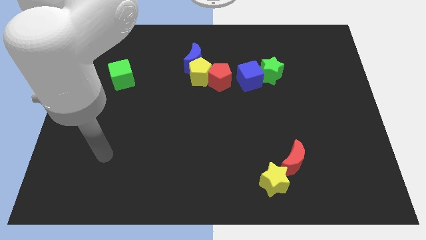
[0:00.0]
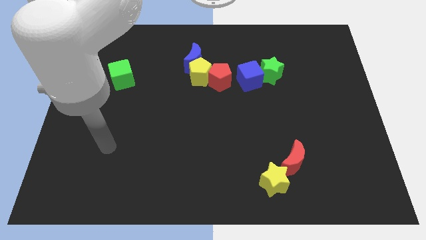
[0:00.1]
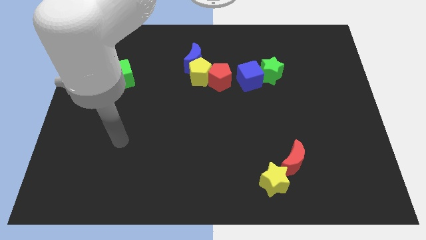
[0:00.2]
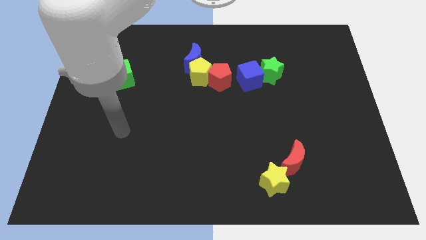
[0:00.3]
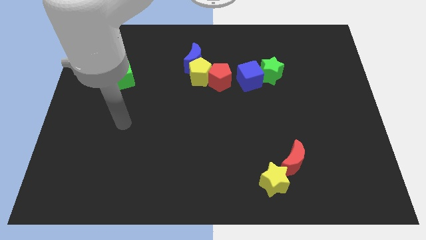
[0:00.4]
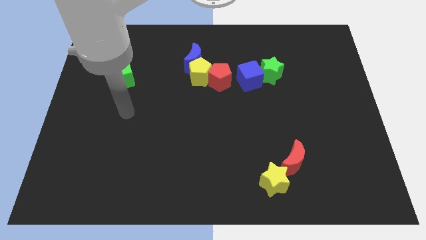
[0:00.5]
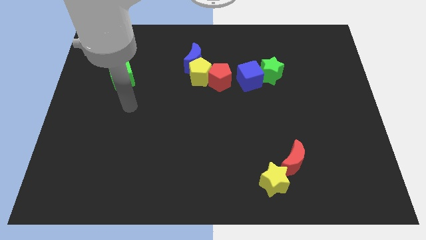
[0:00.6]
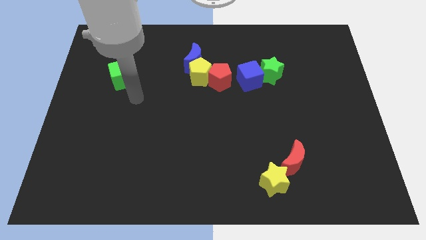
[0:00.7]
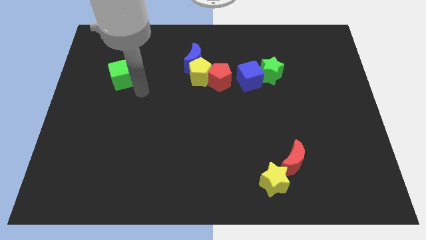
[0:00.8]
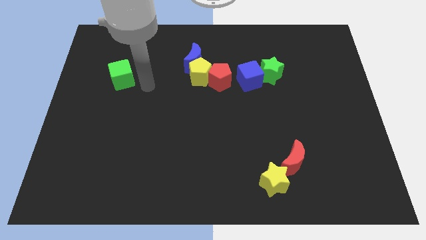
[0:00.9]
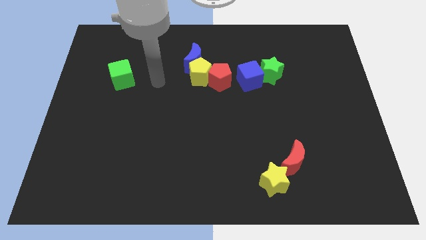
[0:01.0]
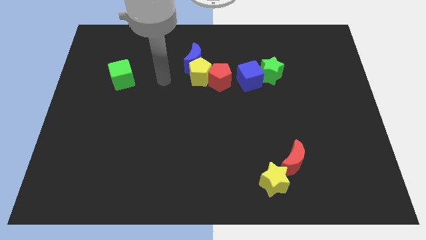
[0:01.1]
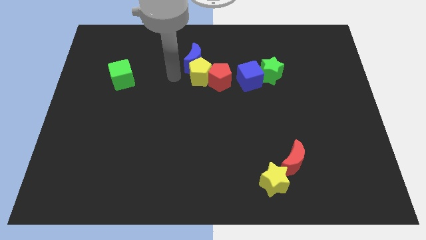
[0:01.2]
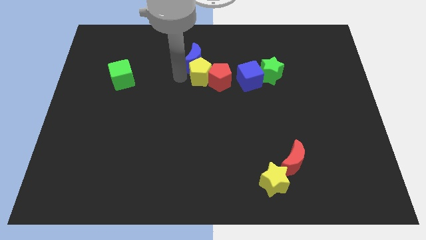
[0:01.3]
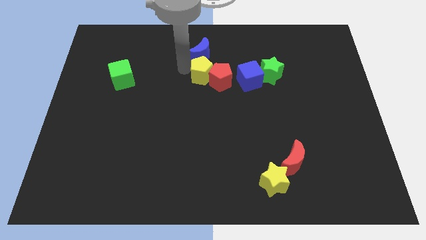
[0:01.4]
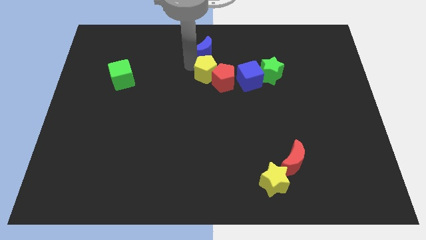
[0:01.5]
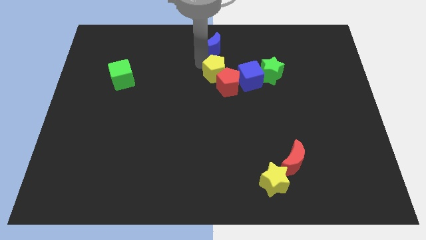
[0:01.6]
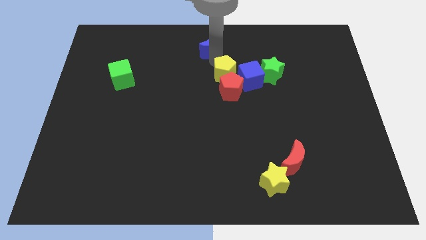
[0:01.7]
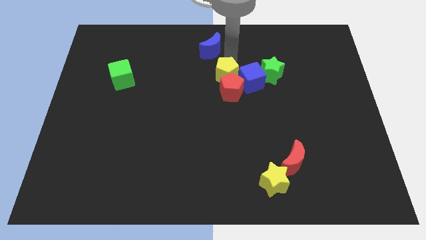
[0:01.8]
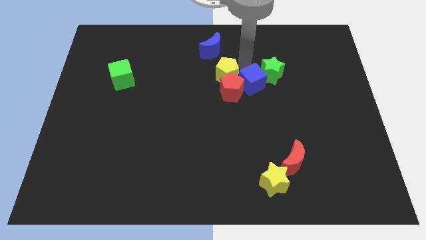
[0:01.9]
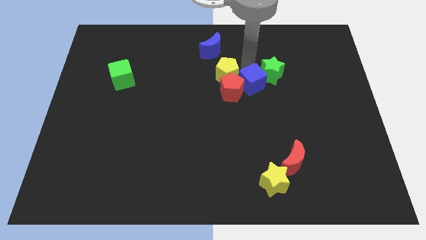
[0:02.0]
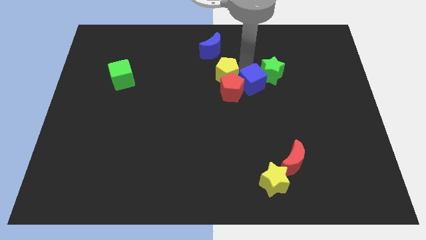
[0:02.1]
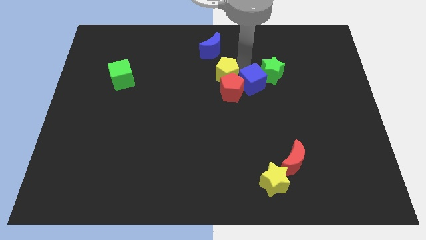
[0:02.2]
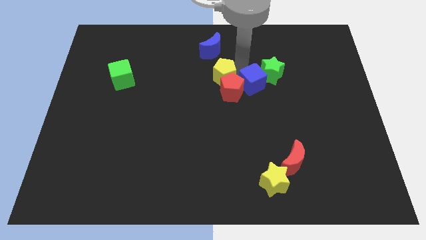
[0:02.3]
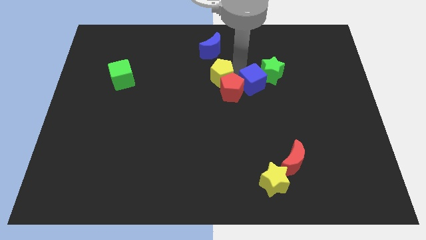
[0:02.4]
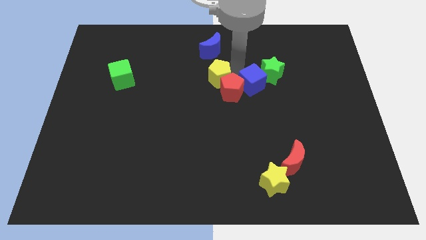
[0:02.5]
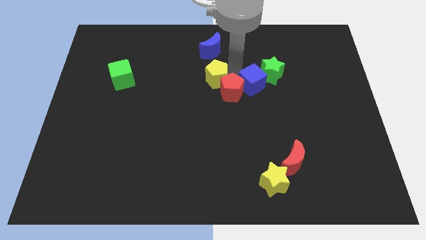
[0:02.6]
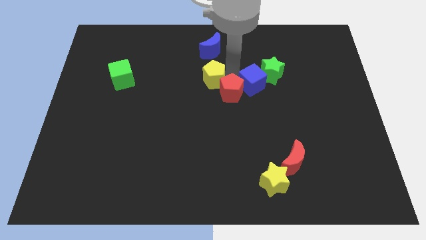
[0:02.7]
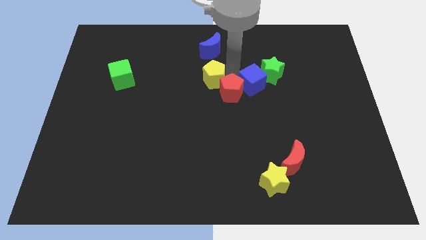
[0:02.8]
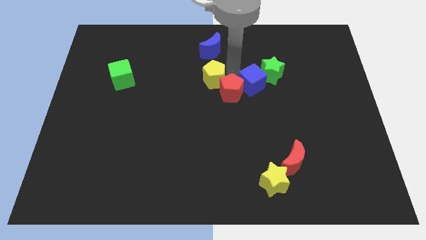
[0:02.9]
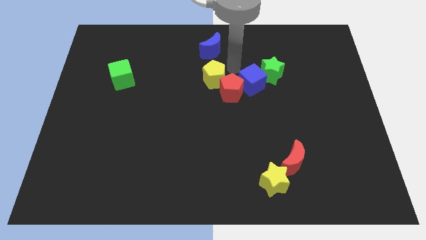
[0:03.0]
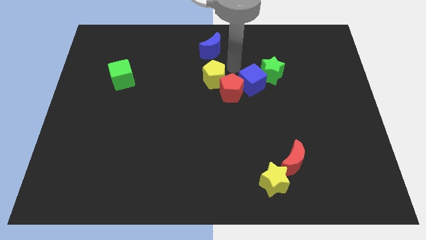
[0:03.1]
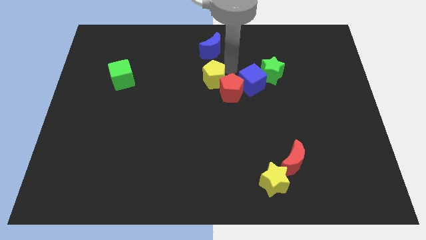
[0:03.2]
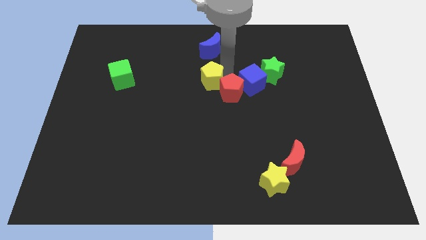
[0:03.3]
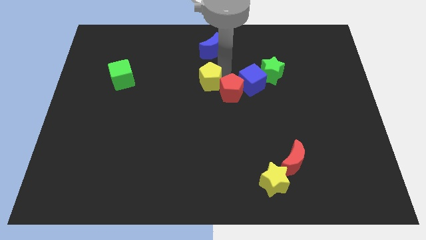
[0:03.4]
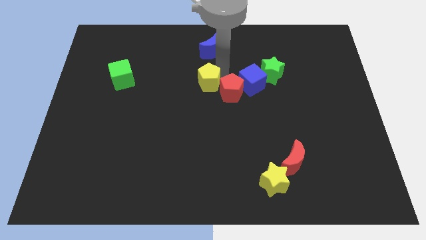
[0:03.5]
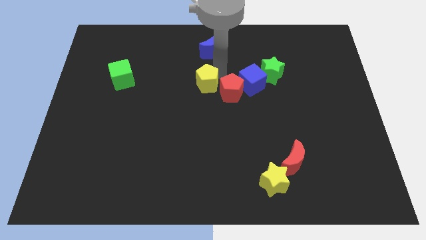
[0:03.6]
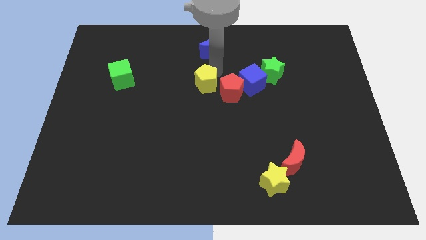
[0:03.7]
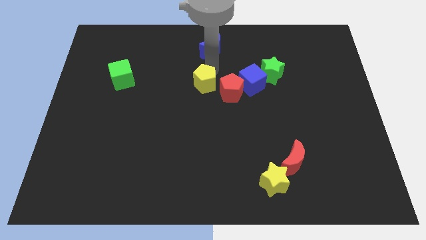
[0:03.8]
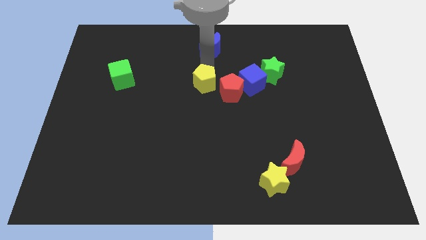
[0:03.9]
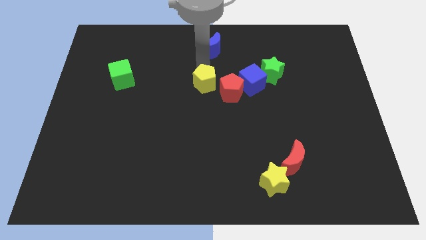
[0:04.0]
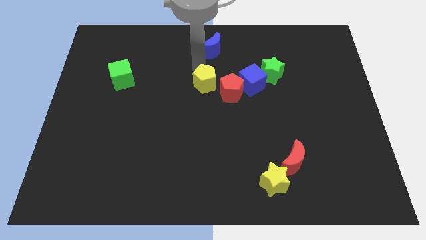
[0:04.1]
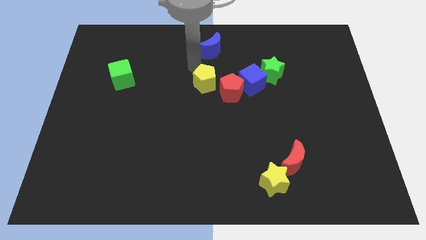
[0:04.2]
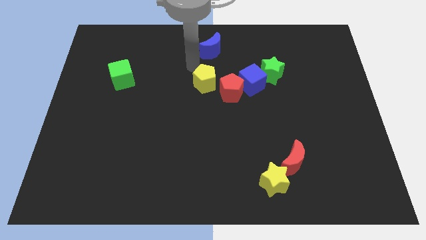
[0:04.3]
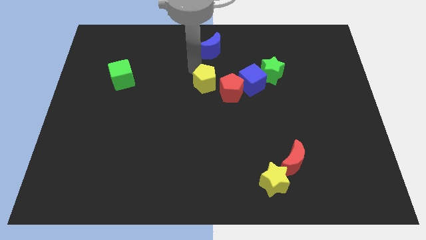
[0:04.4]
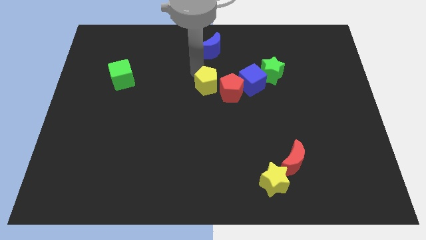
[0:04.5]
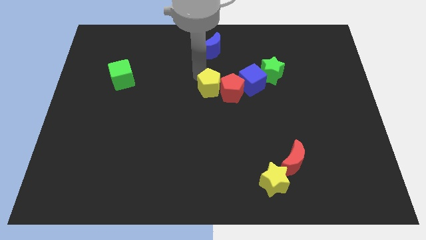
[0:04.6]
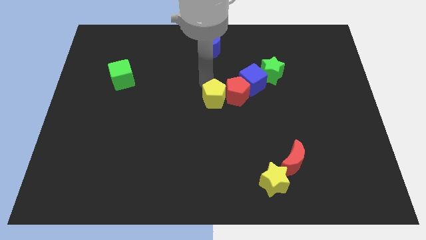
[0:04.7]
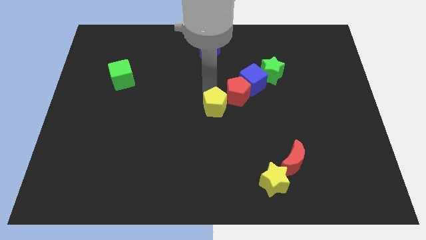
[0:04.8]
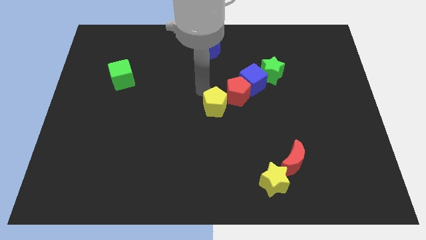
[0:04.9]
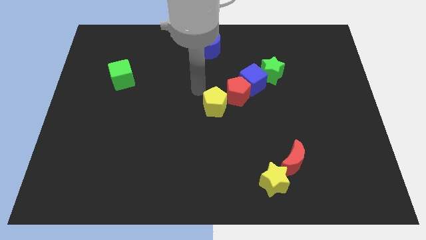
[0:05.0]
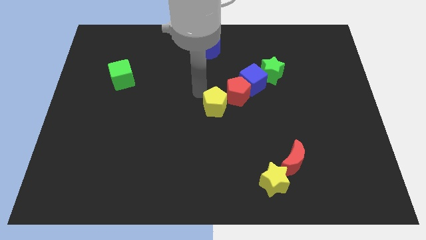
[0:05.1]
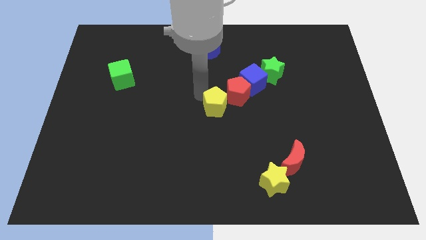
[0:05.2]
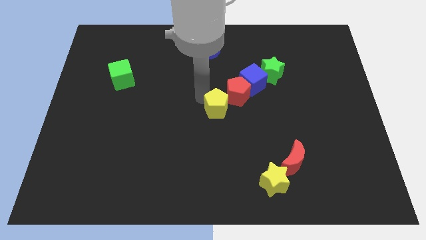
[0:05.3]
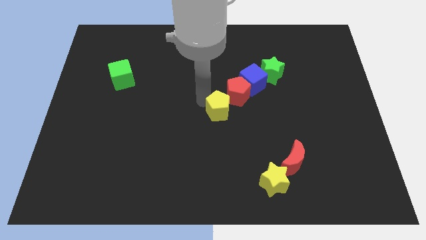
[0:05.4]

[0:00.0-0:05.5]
put the yellow pentagon below the red pentagon
